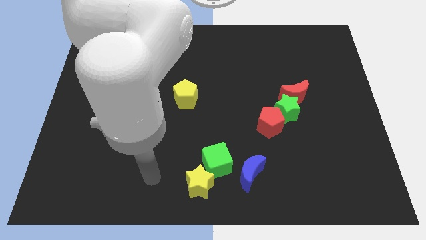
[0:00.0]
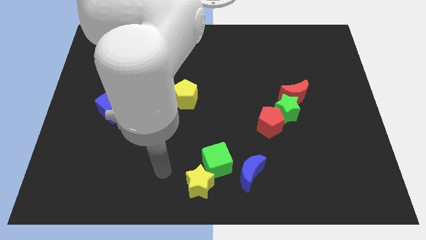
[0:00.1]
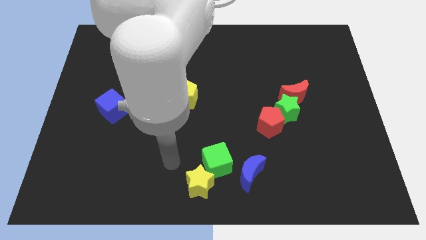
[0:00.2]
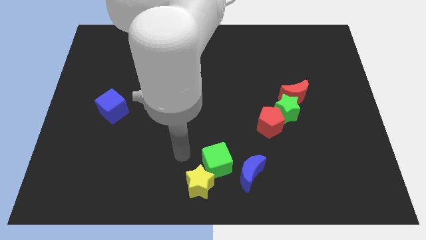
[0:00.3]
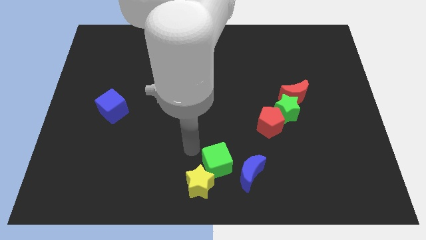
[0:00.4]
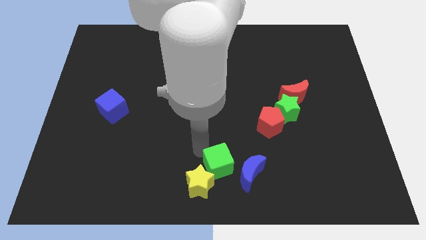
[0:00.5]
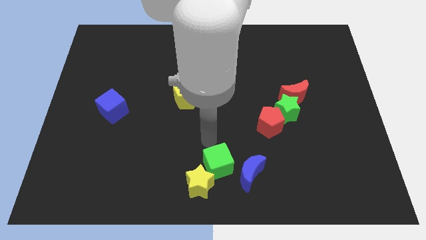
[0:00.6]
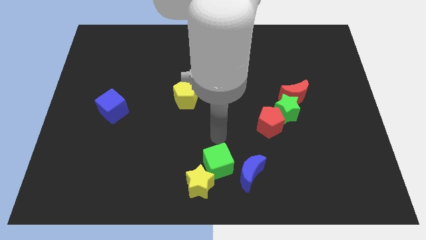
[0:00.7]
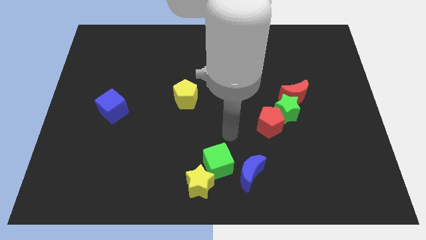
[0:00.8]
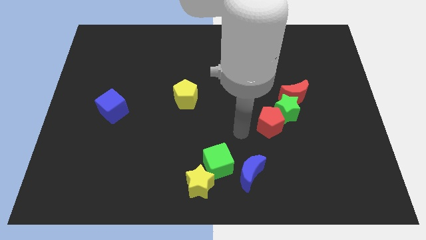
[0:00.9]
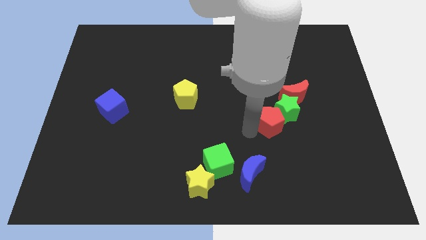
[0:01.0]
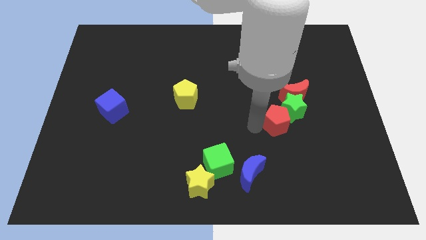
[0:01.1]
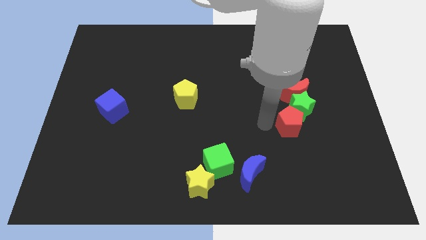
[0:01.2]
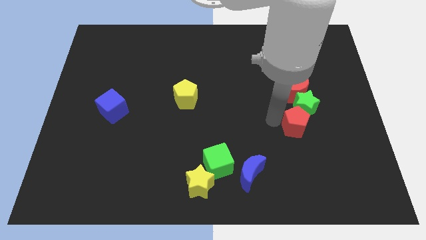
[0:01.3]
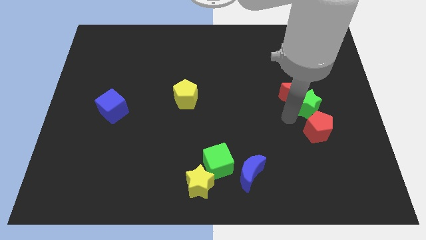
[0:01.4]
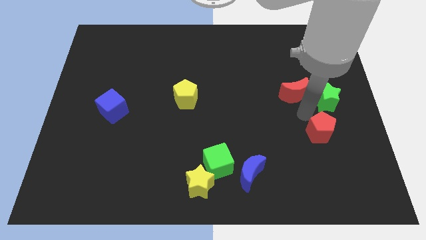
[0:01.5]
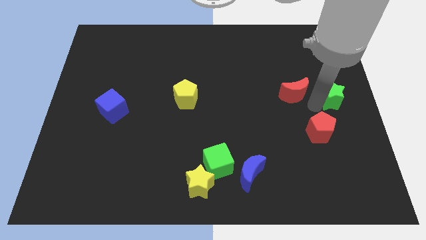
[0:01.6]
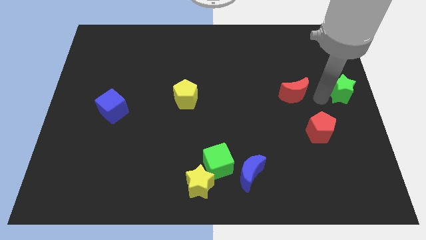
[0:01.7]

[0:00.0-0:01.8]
separate the red moon from the green star

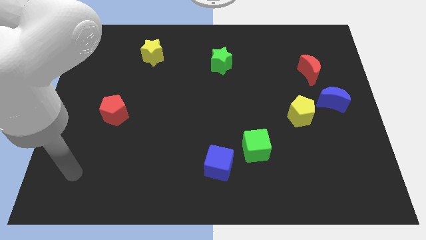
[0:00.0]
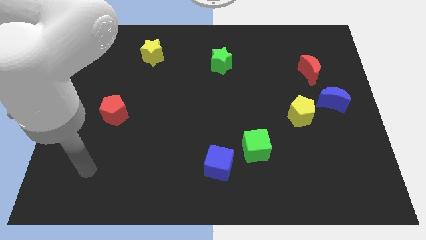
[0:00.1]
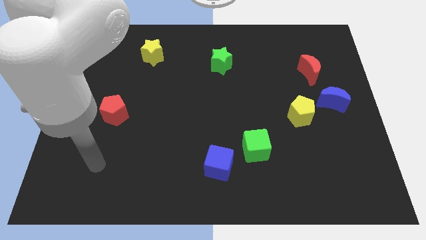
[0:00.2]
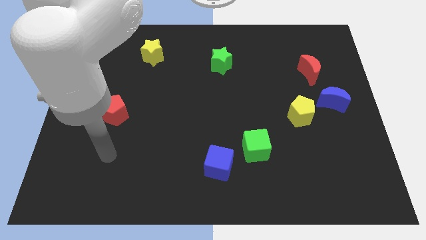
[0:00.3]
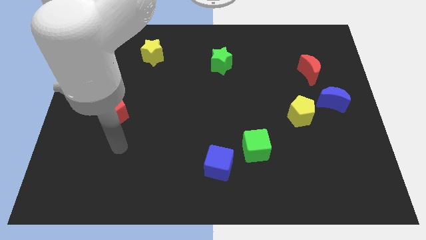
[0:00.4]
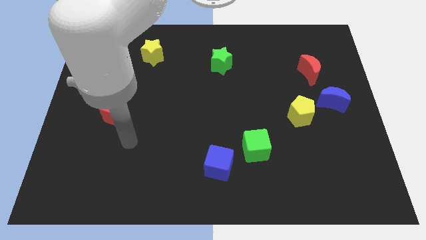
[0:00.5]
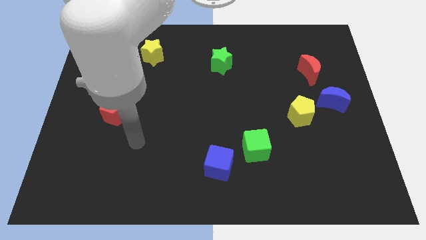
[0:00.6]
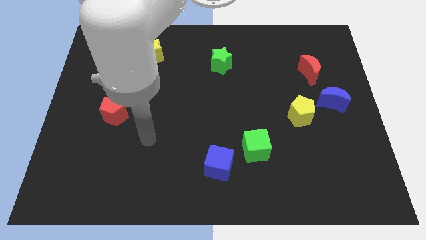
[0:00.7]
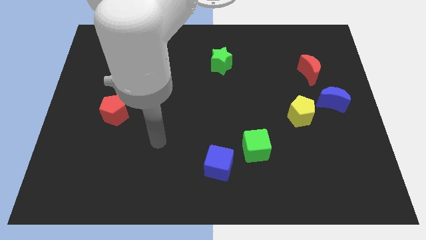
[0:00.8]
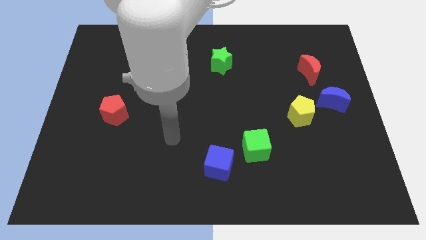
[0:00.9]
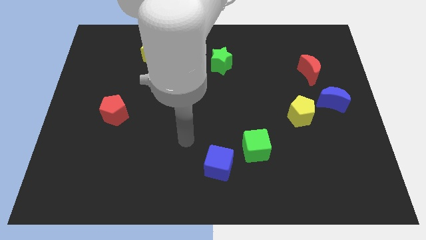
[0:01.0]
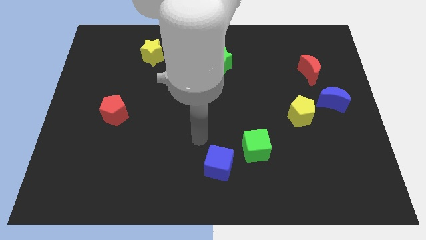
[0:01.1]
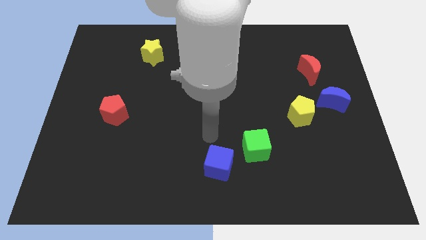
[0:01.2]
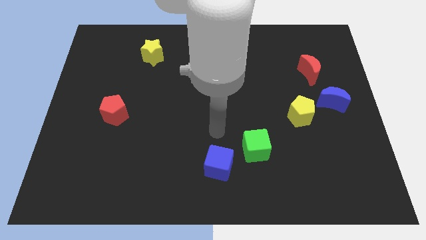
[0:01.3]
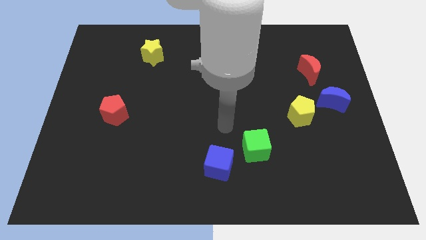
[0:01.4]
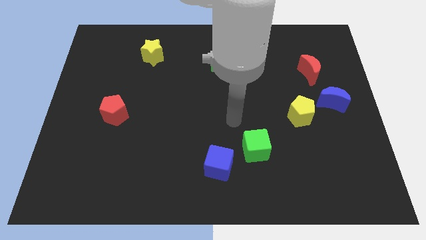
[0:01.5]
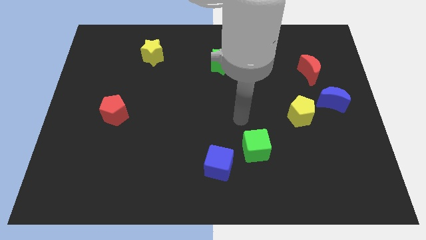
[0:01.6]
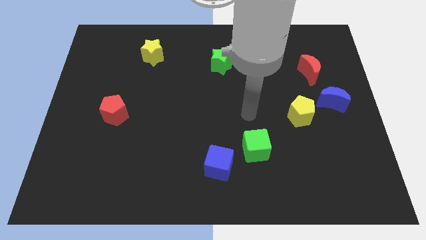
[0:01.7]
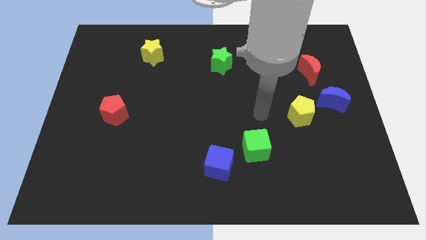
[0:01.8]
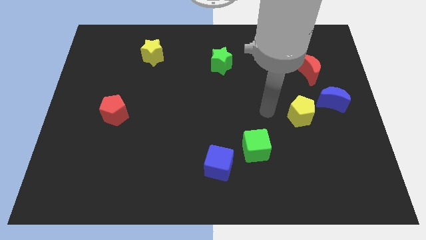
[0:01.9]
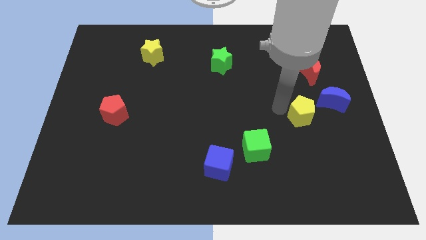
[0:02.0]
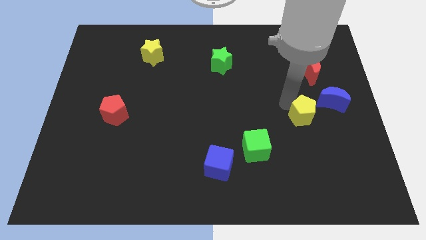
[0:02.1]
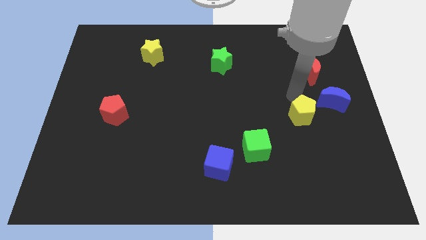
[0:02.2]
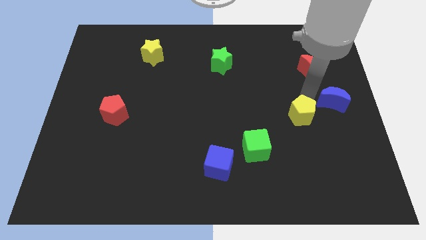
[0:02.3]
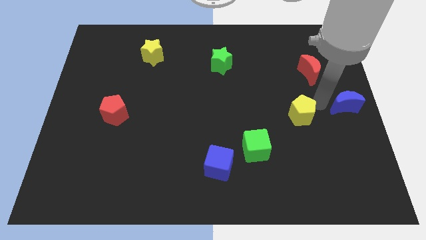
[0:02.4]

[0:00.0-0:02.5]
separate the yellow pentagon from the blue moon

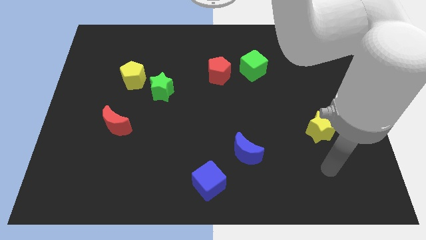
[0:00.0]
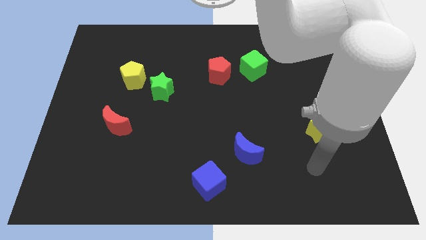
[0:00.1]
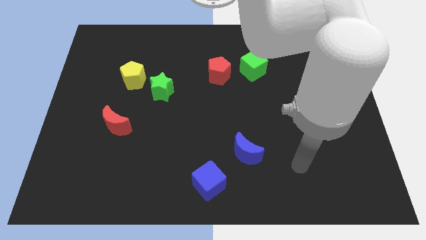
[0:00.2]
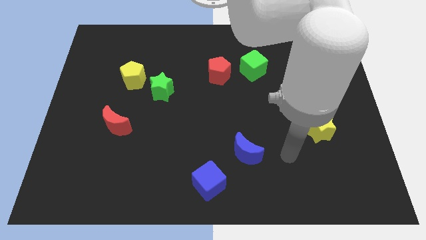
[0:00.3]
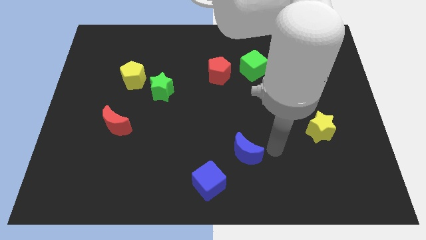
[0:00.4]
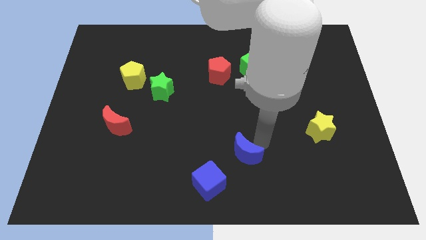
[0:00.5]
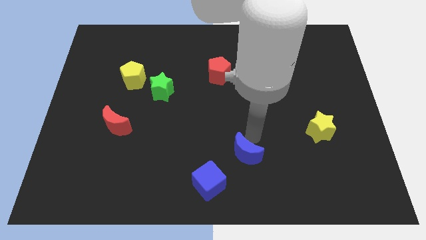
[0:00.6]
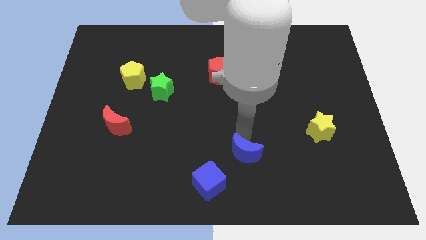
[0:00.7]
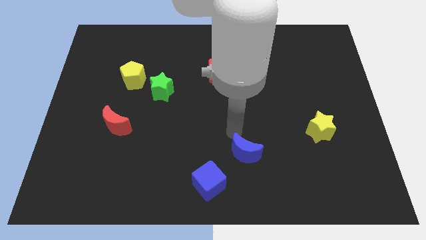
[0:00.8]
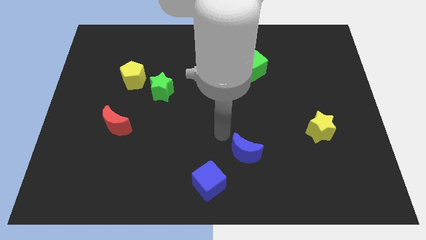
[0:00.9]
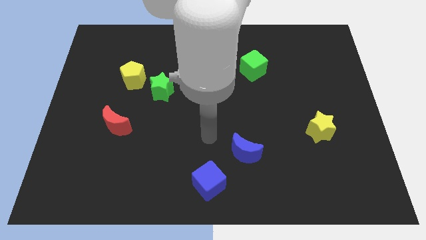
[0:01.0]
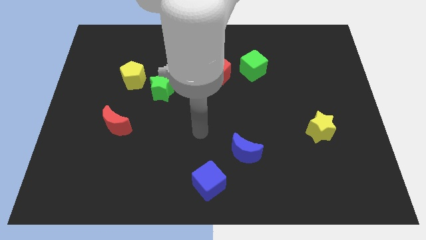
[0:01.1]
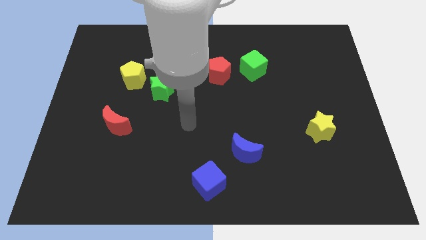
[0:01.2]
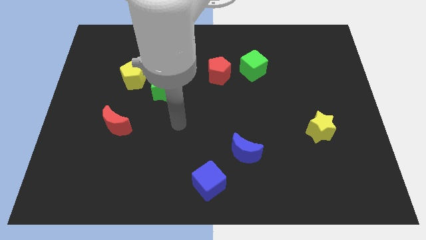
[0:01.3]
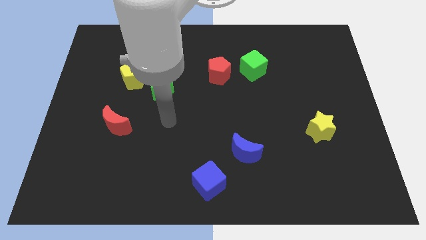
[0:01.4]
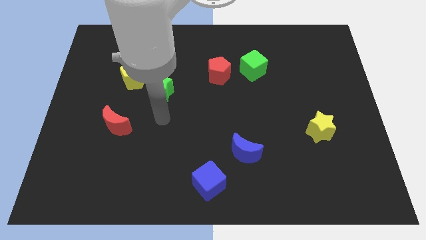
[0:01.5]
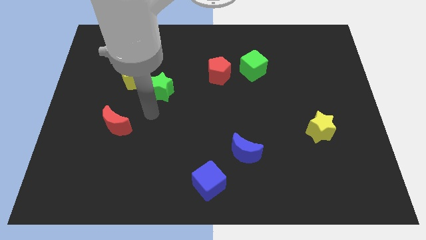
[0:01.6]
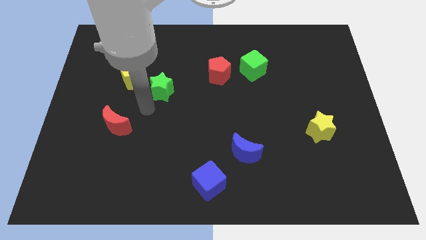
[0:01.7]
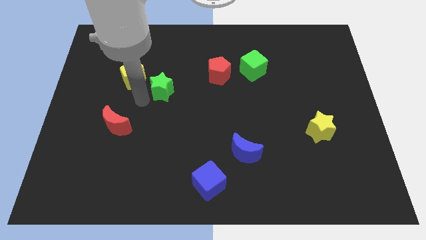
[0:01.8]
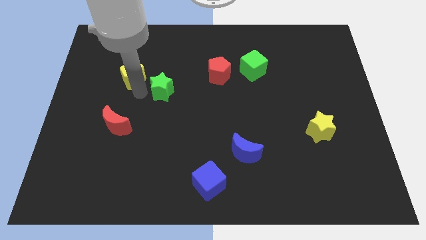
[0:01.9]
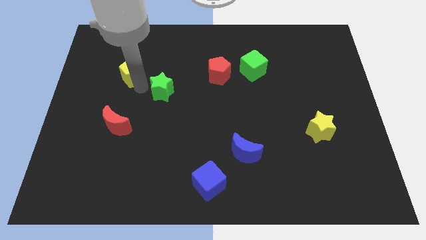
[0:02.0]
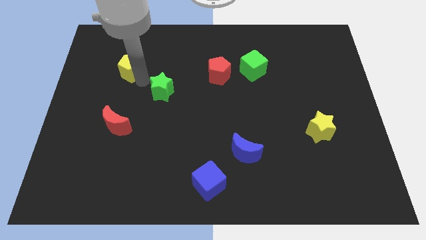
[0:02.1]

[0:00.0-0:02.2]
separate the green star from the yellow pentagon

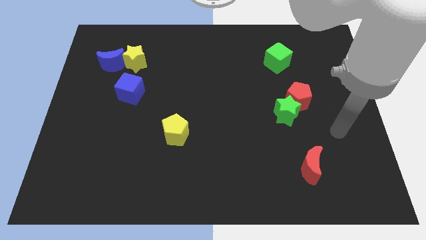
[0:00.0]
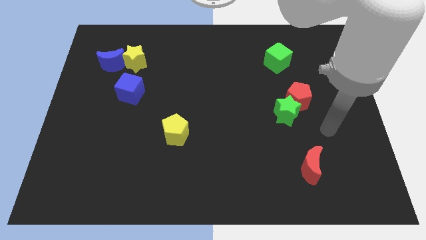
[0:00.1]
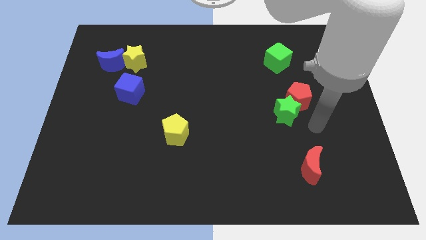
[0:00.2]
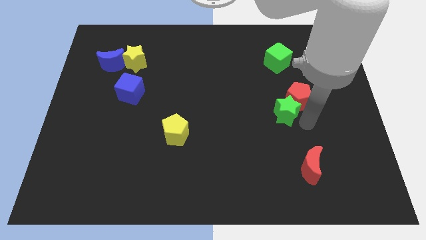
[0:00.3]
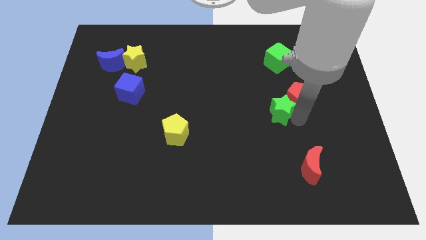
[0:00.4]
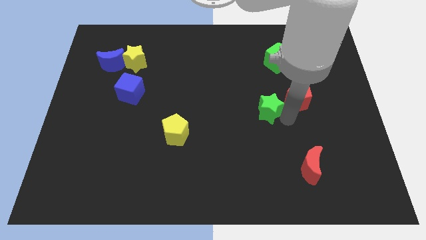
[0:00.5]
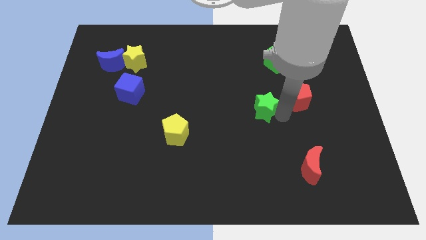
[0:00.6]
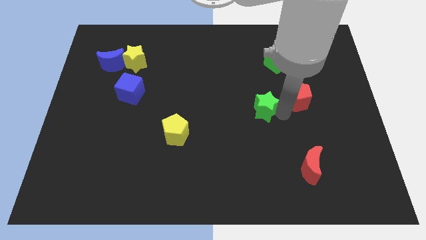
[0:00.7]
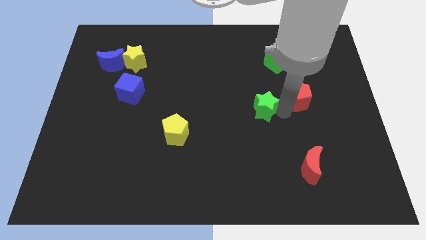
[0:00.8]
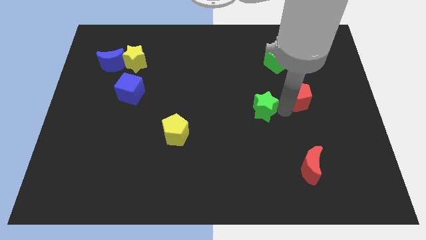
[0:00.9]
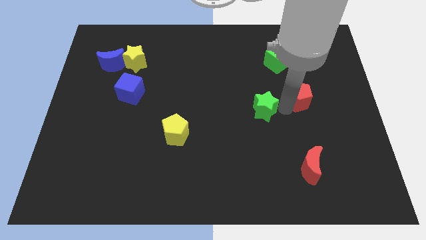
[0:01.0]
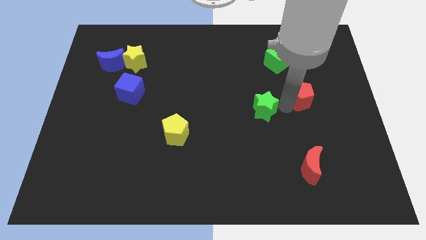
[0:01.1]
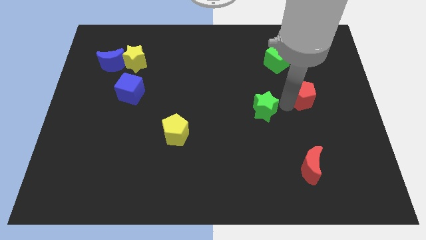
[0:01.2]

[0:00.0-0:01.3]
separate the red pentagon from the green star

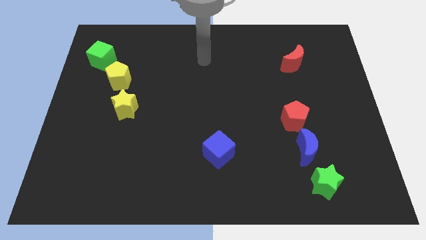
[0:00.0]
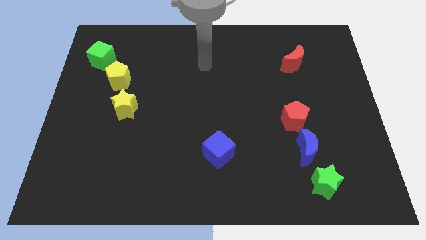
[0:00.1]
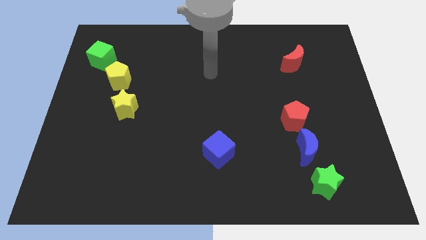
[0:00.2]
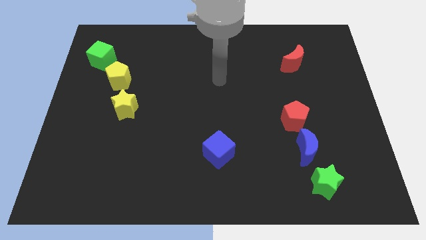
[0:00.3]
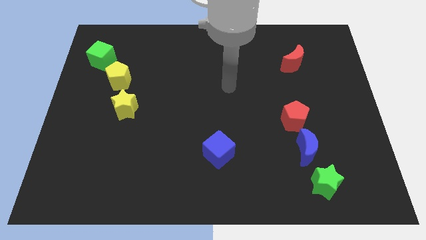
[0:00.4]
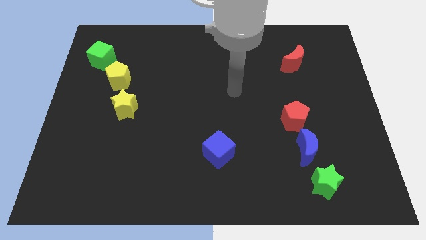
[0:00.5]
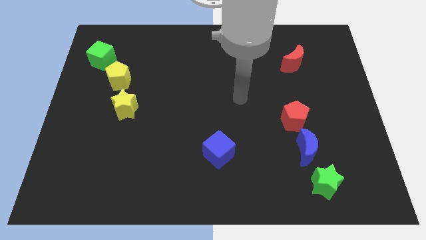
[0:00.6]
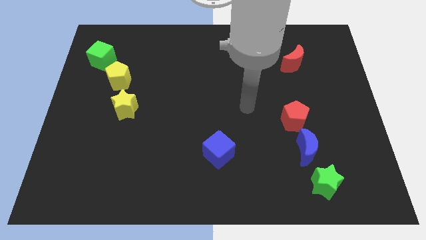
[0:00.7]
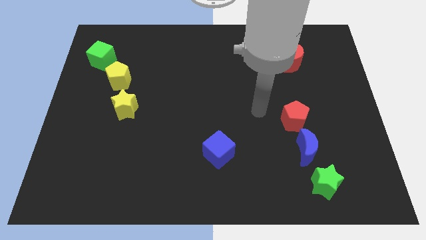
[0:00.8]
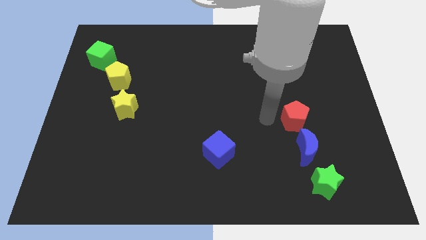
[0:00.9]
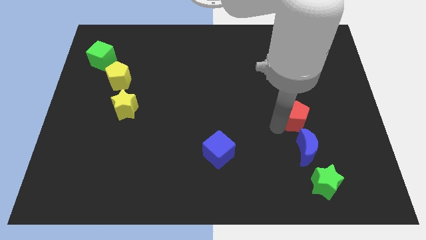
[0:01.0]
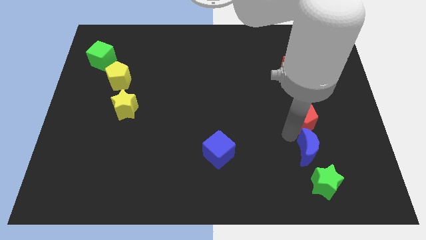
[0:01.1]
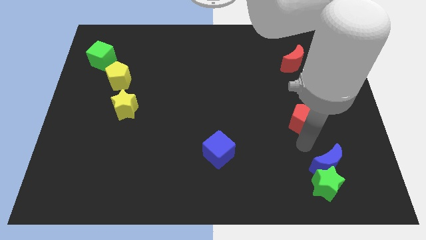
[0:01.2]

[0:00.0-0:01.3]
move the red pentagon away from the blue moon

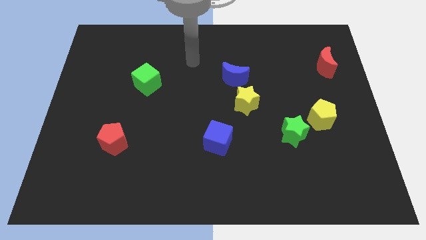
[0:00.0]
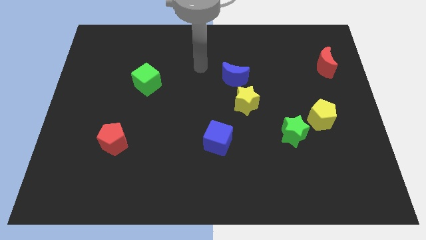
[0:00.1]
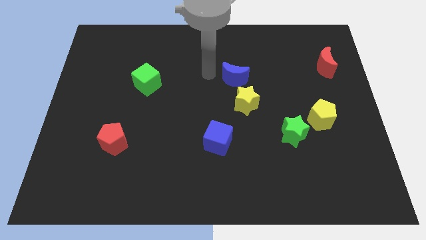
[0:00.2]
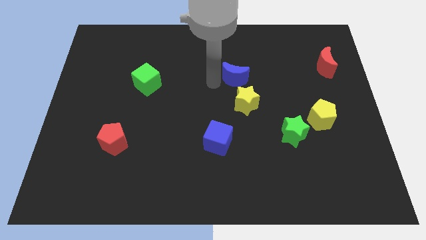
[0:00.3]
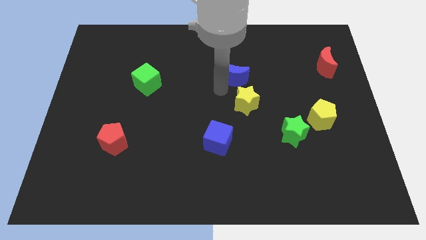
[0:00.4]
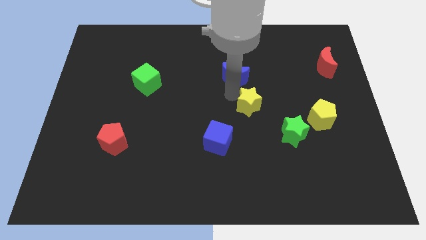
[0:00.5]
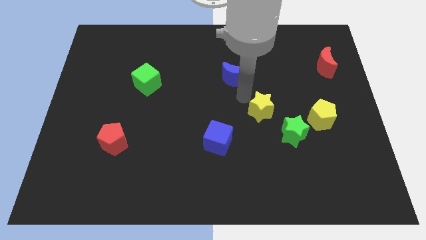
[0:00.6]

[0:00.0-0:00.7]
separate the blue moon from the yellow star